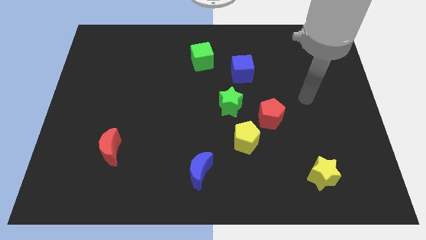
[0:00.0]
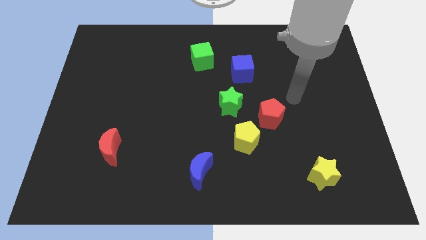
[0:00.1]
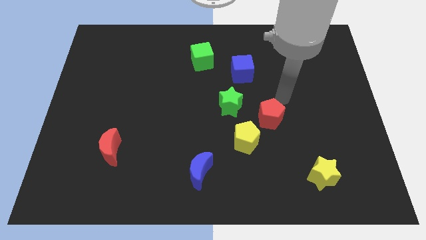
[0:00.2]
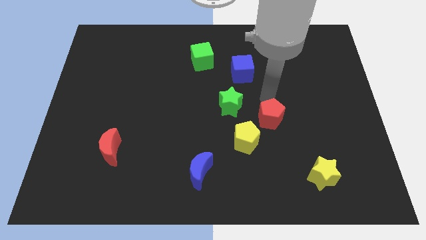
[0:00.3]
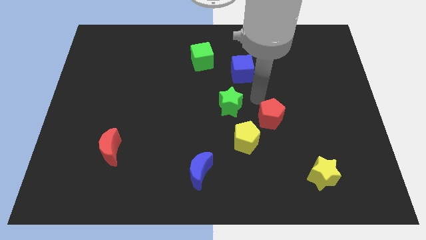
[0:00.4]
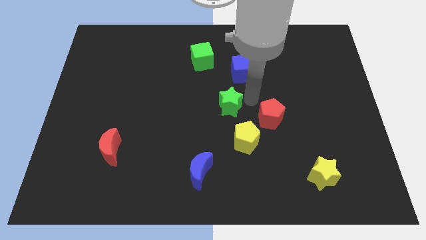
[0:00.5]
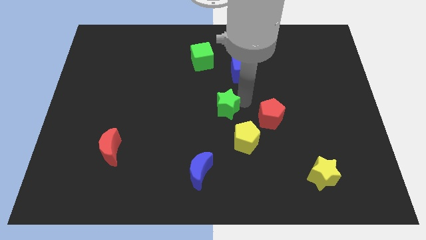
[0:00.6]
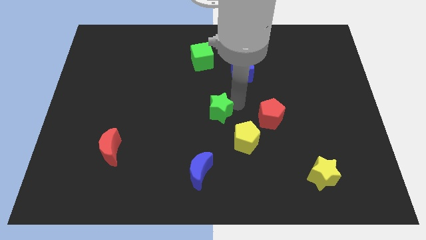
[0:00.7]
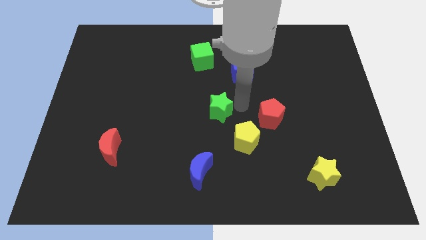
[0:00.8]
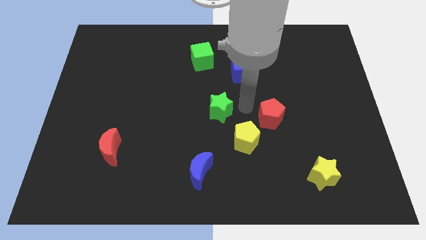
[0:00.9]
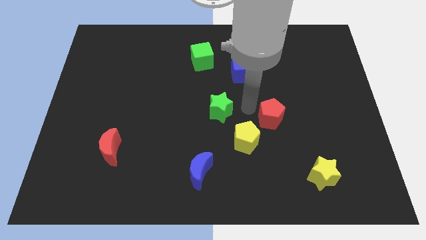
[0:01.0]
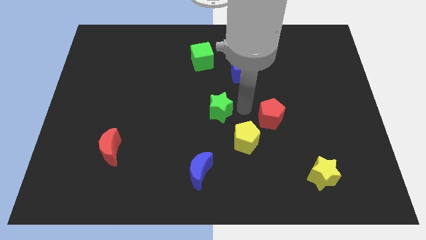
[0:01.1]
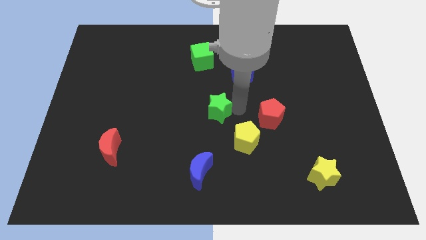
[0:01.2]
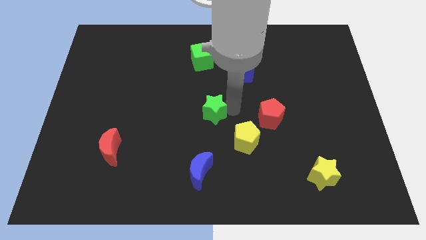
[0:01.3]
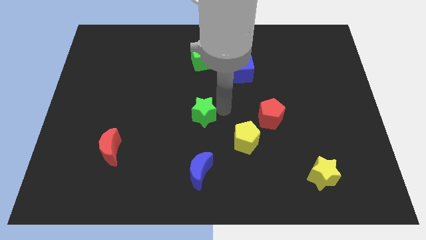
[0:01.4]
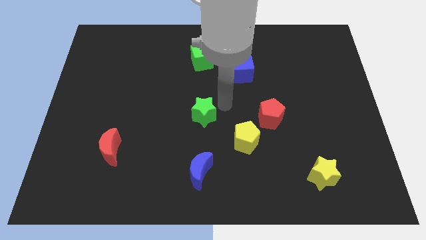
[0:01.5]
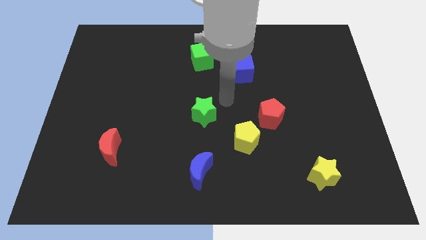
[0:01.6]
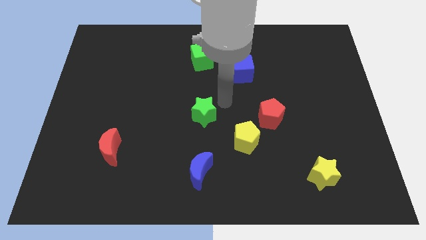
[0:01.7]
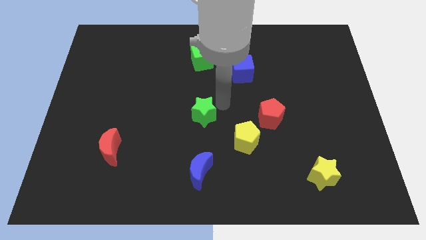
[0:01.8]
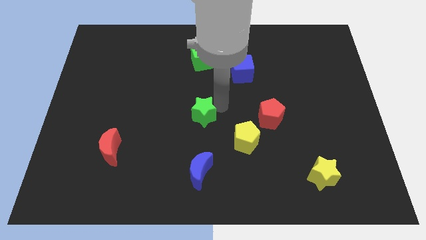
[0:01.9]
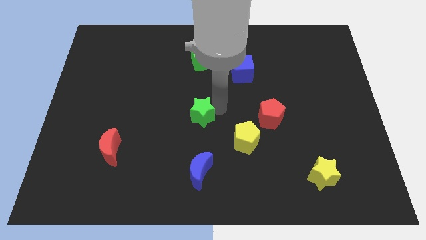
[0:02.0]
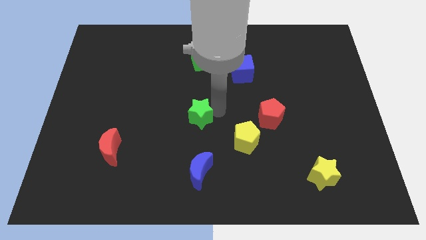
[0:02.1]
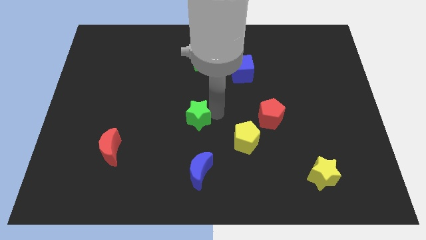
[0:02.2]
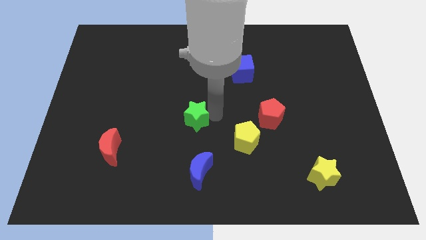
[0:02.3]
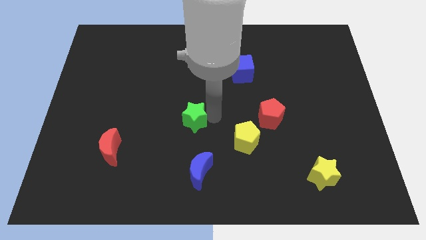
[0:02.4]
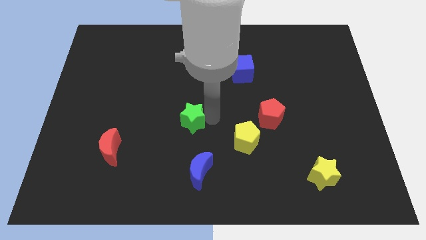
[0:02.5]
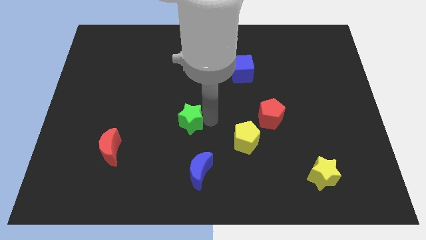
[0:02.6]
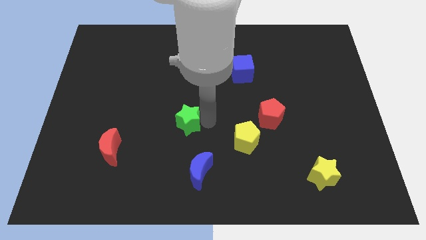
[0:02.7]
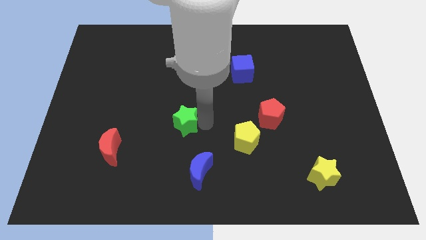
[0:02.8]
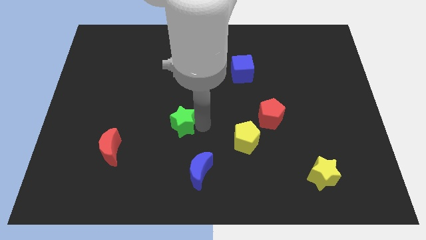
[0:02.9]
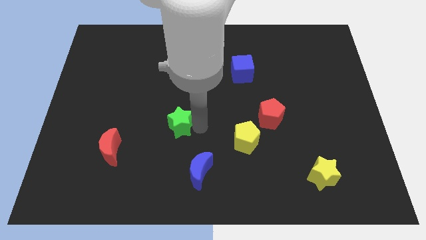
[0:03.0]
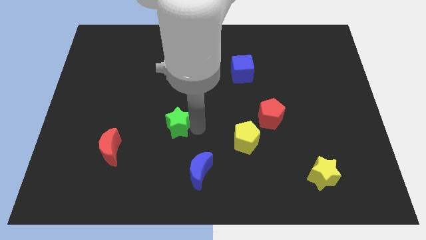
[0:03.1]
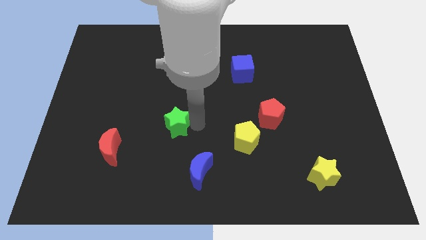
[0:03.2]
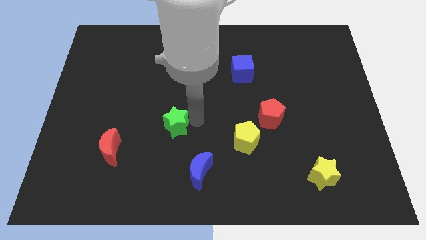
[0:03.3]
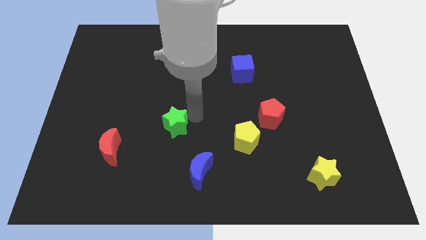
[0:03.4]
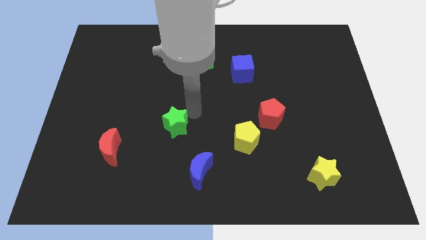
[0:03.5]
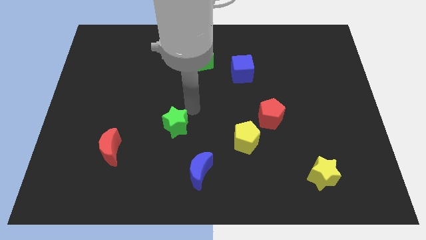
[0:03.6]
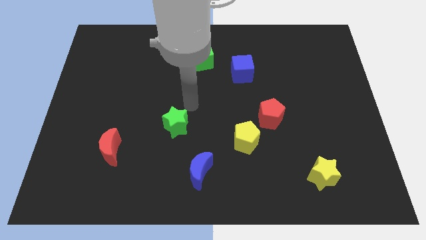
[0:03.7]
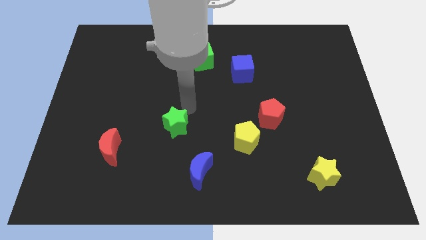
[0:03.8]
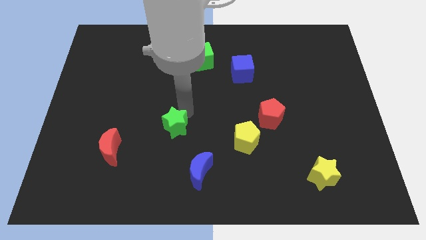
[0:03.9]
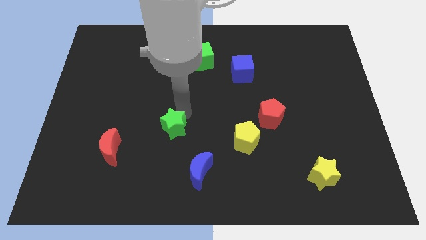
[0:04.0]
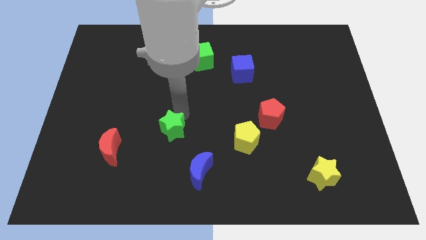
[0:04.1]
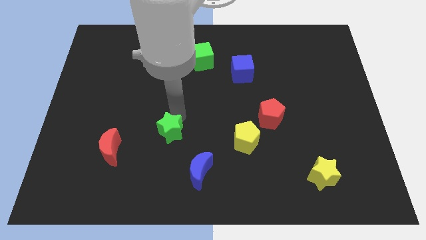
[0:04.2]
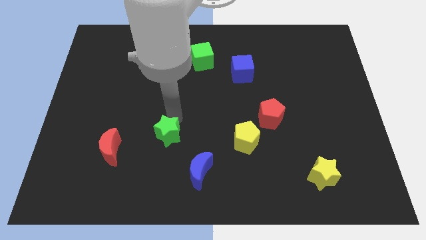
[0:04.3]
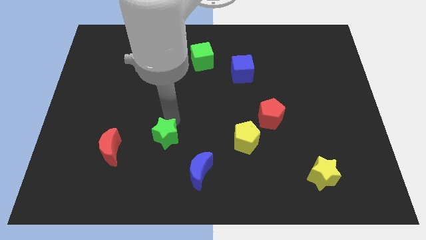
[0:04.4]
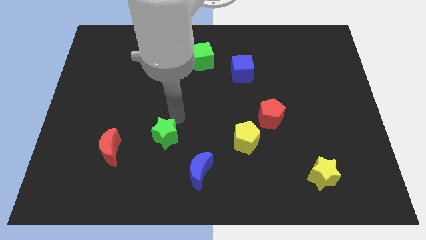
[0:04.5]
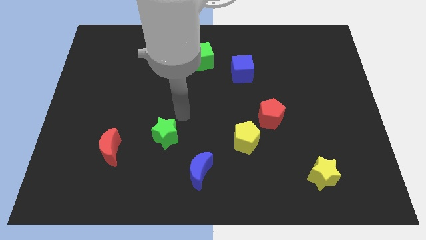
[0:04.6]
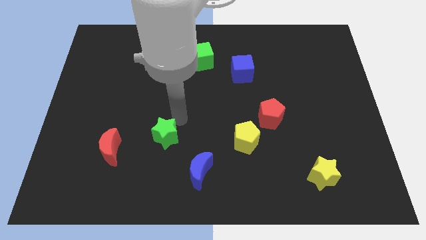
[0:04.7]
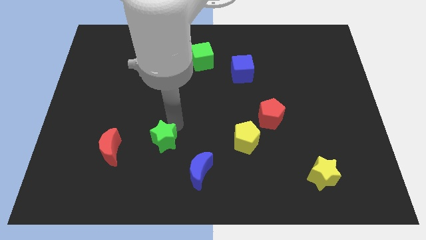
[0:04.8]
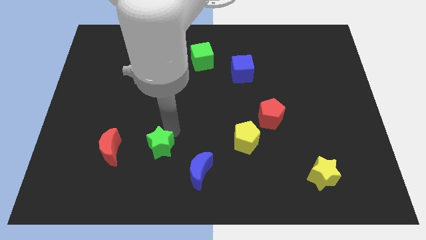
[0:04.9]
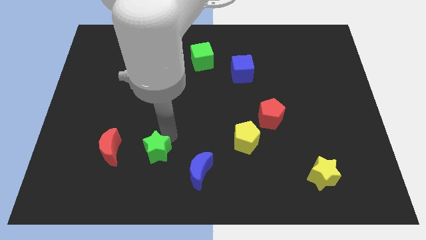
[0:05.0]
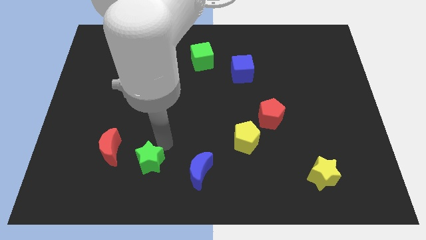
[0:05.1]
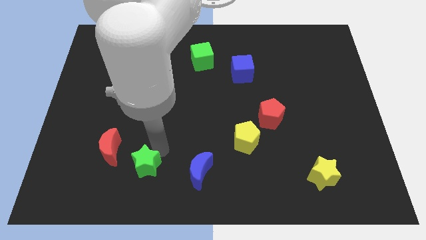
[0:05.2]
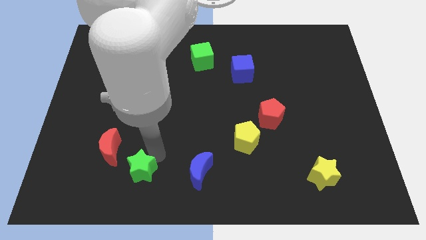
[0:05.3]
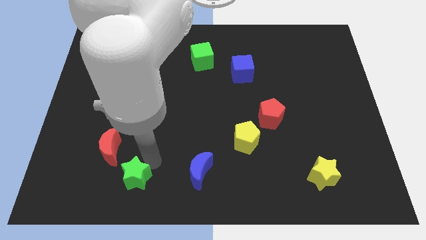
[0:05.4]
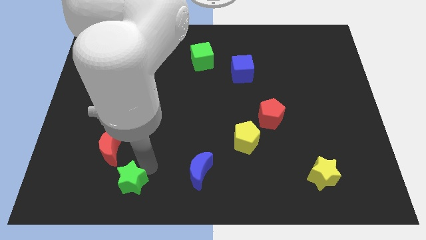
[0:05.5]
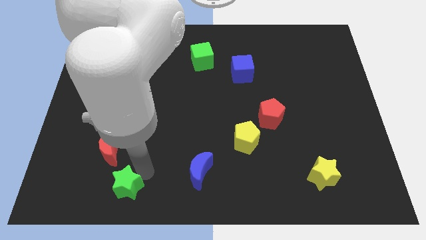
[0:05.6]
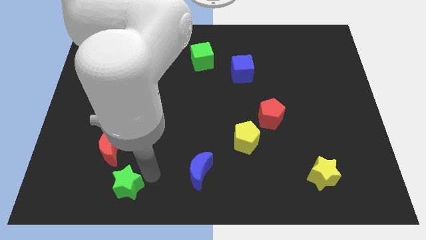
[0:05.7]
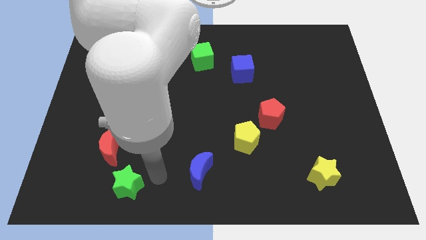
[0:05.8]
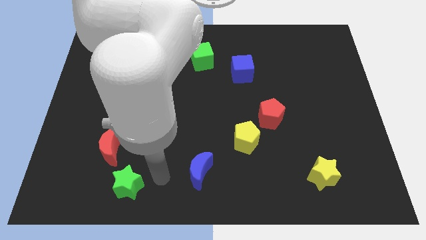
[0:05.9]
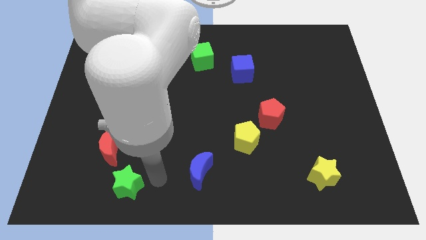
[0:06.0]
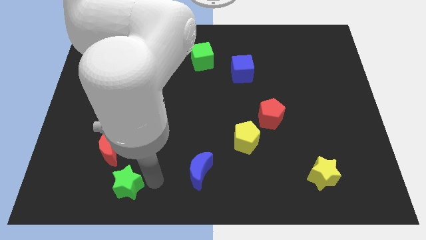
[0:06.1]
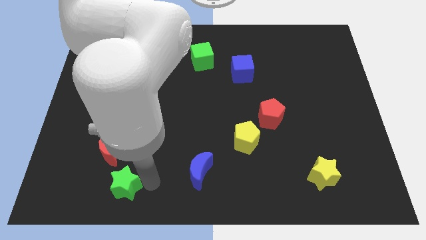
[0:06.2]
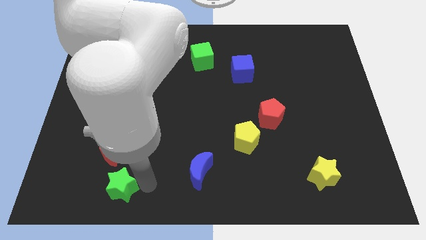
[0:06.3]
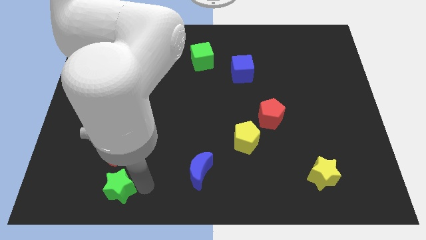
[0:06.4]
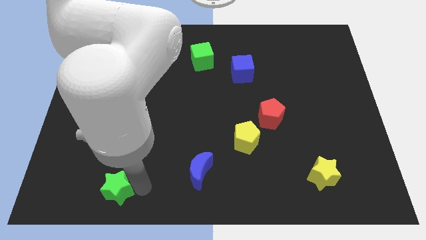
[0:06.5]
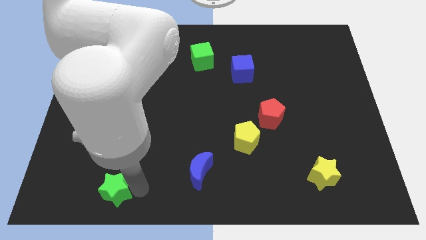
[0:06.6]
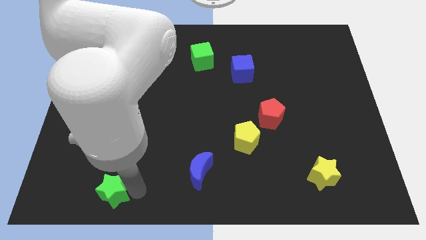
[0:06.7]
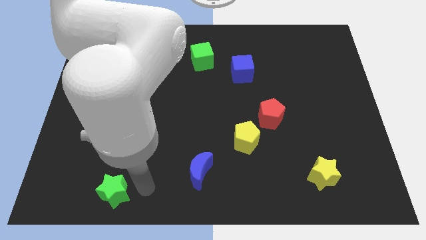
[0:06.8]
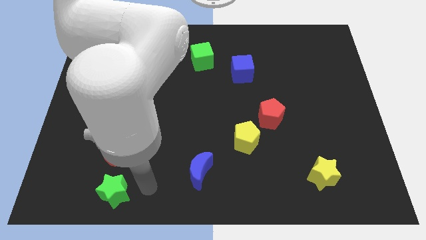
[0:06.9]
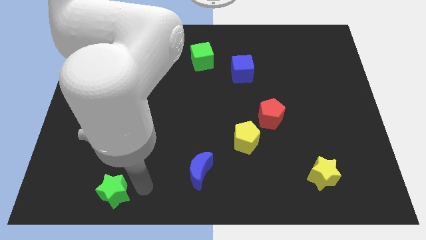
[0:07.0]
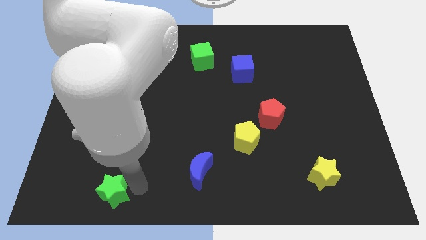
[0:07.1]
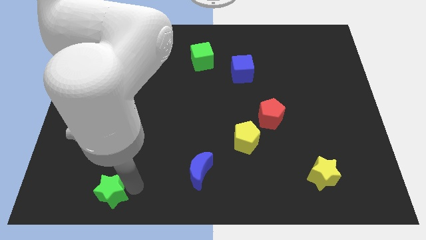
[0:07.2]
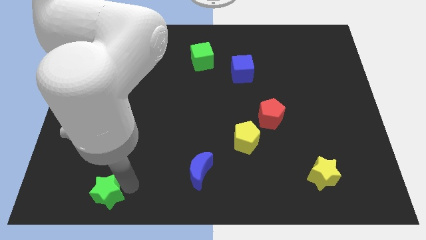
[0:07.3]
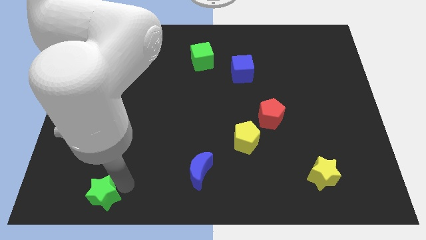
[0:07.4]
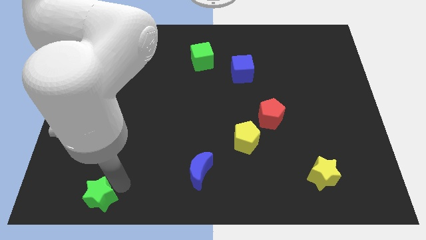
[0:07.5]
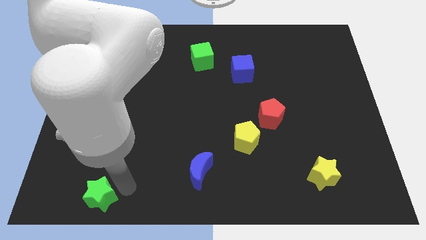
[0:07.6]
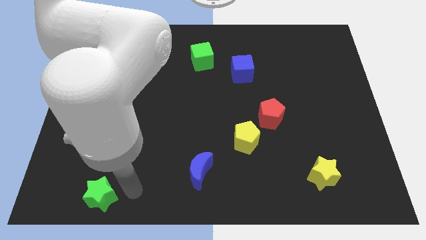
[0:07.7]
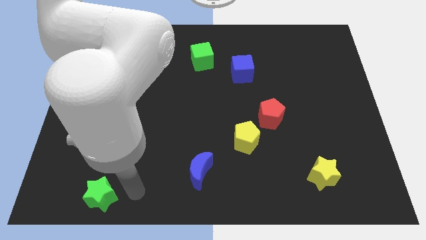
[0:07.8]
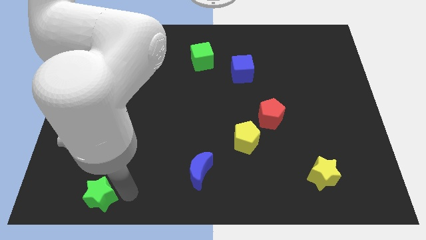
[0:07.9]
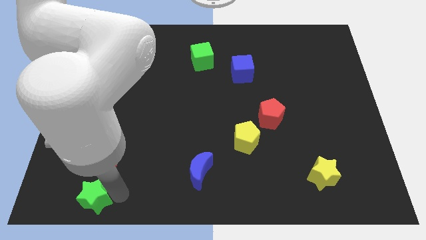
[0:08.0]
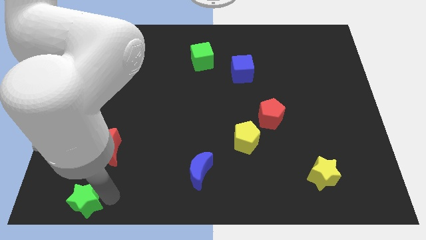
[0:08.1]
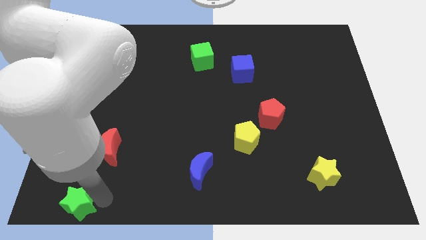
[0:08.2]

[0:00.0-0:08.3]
slide the green star to the bottom left of the board
